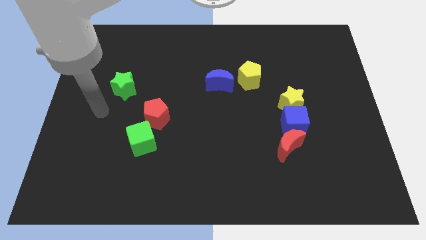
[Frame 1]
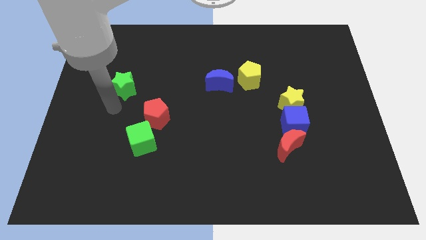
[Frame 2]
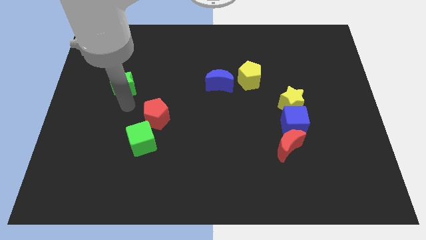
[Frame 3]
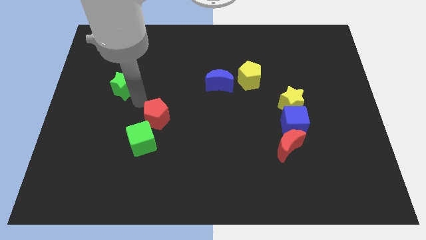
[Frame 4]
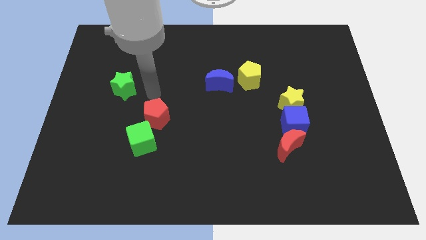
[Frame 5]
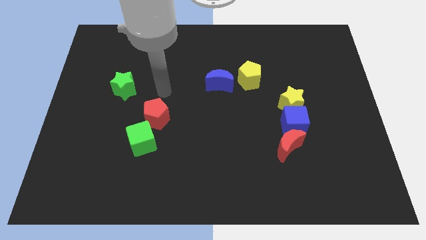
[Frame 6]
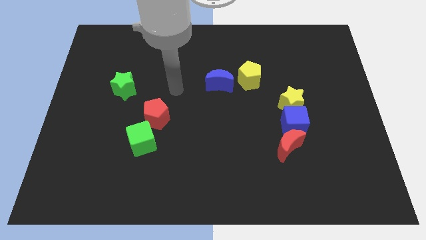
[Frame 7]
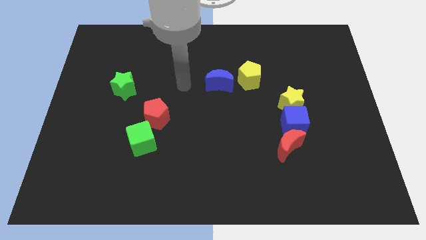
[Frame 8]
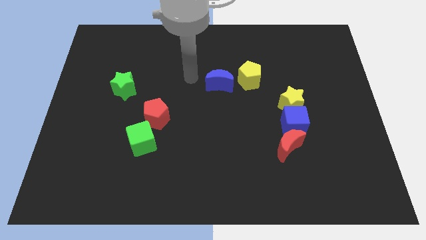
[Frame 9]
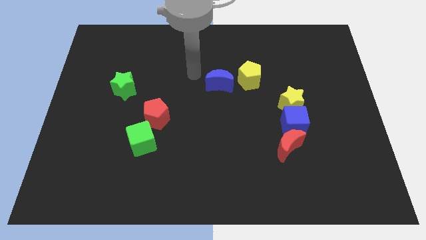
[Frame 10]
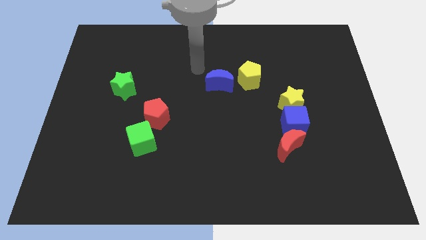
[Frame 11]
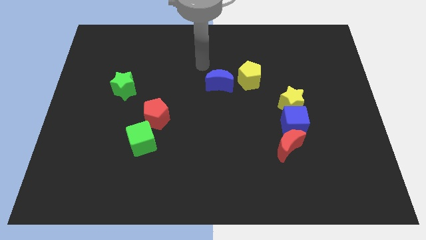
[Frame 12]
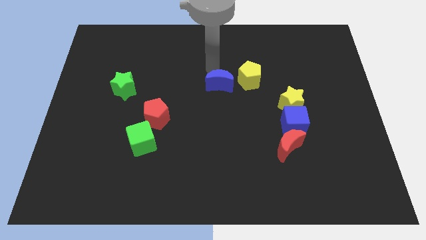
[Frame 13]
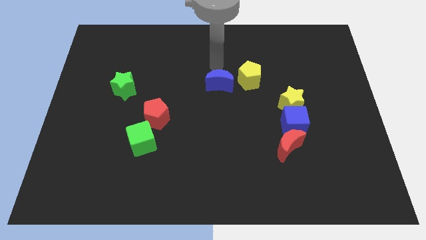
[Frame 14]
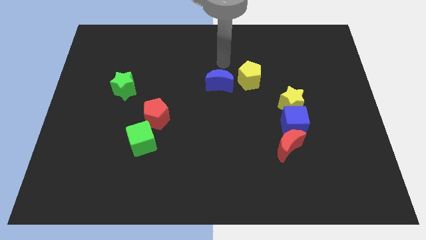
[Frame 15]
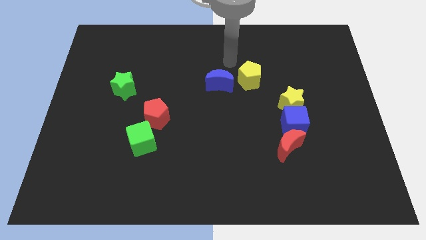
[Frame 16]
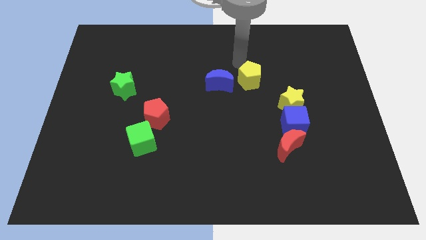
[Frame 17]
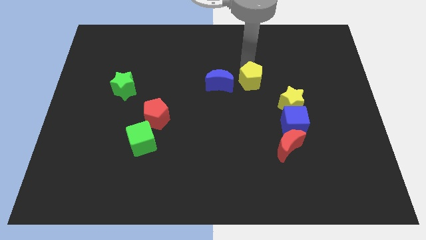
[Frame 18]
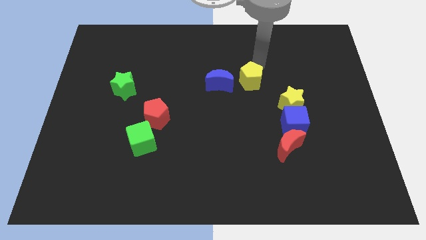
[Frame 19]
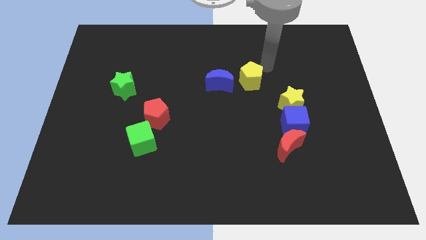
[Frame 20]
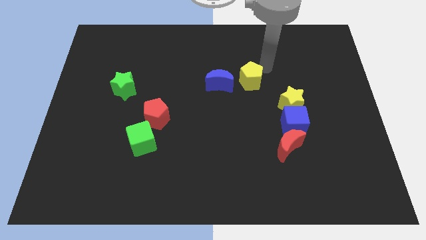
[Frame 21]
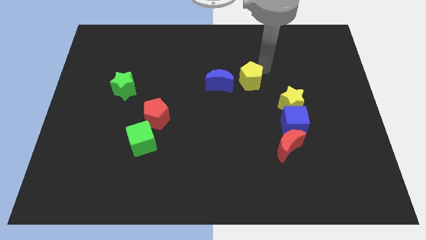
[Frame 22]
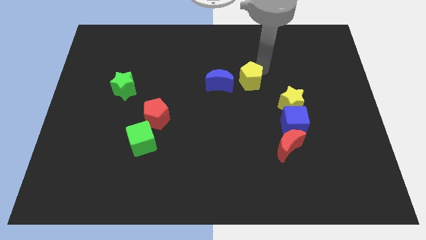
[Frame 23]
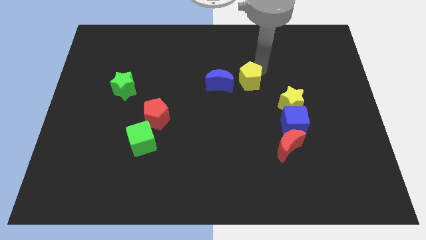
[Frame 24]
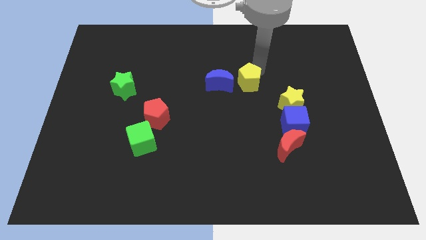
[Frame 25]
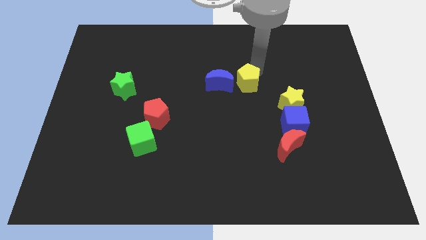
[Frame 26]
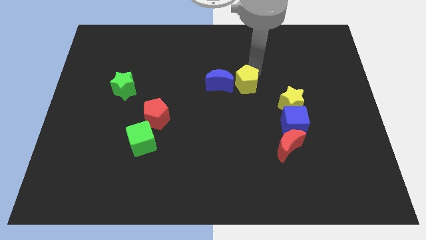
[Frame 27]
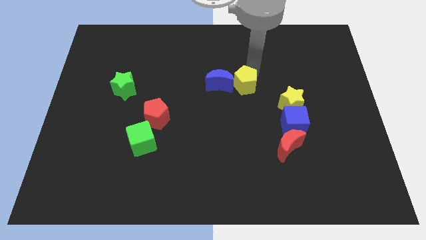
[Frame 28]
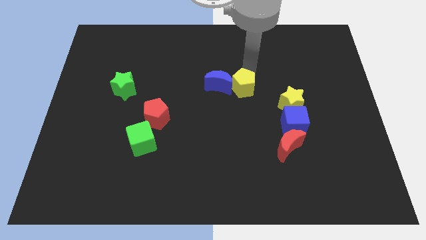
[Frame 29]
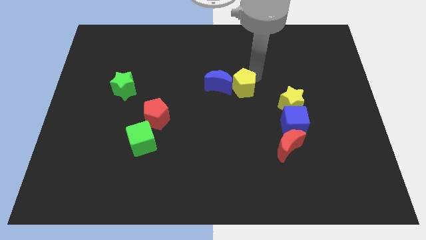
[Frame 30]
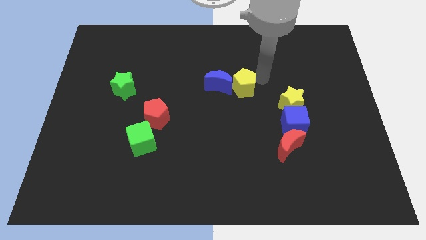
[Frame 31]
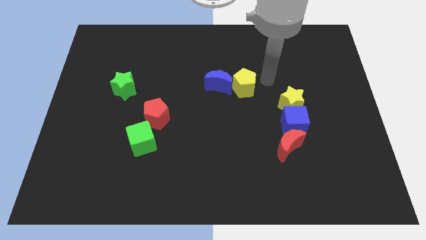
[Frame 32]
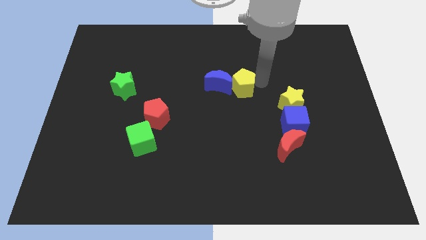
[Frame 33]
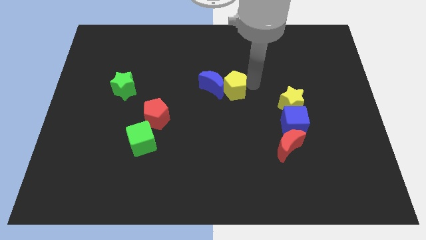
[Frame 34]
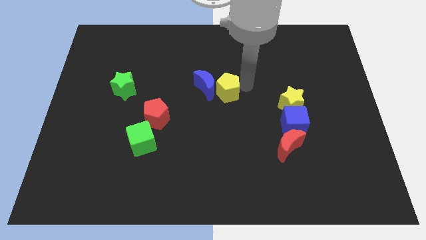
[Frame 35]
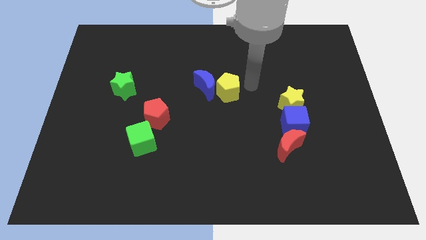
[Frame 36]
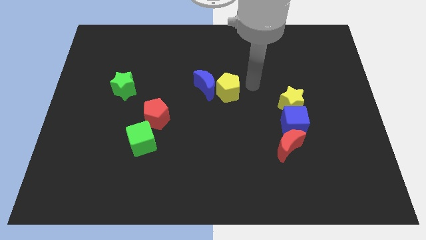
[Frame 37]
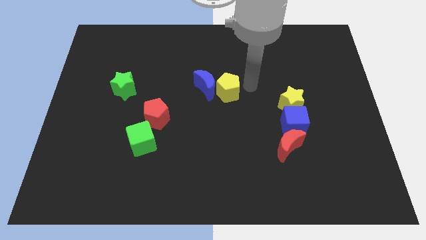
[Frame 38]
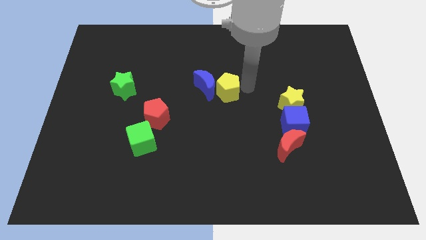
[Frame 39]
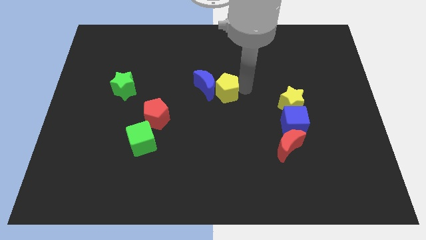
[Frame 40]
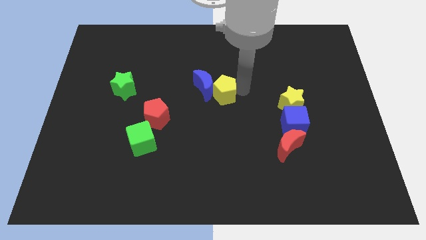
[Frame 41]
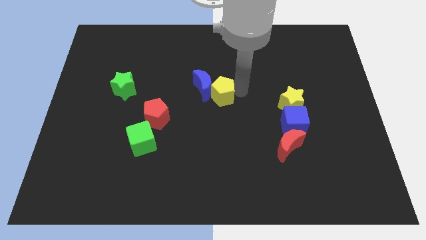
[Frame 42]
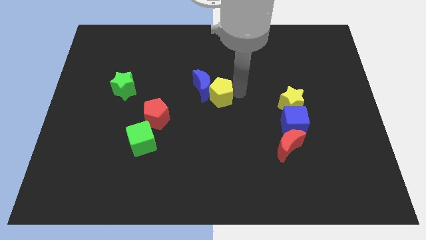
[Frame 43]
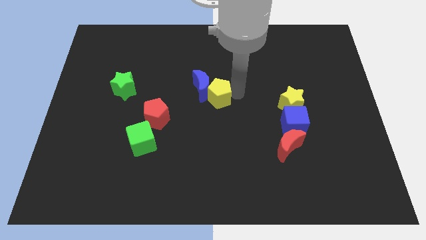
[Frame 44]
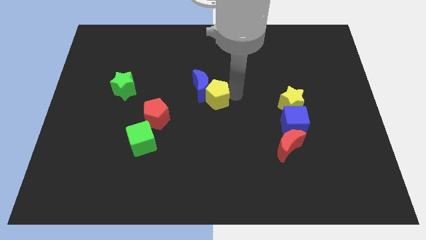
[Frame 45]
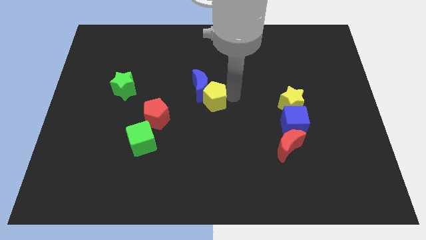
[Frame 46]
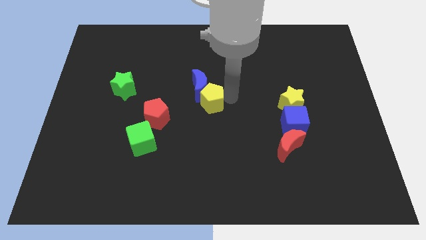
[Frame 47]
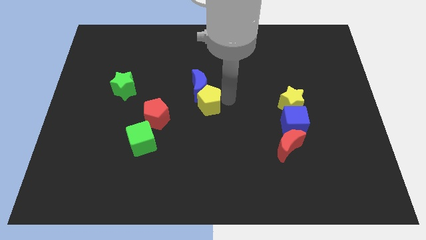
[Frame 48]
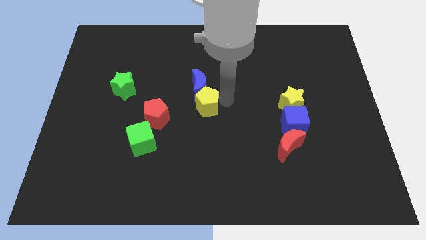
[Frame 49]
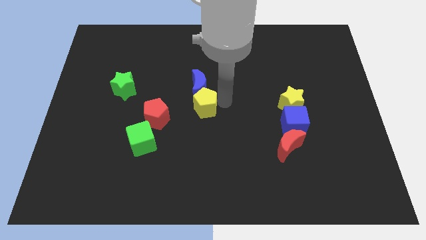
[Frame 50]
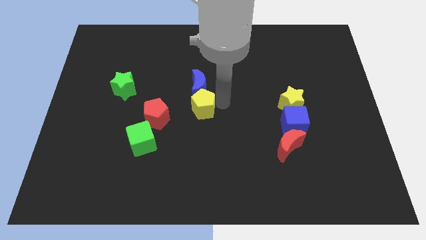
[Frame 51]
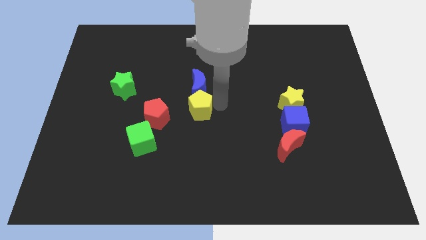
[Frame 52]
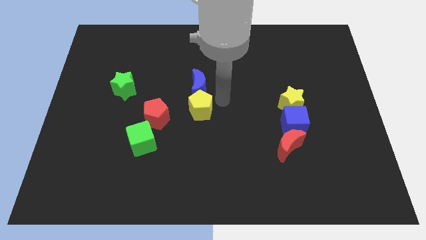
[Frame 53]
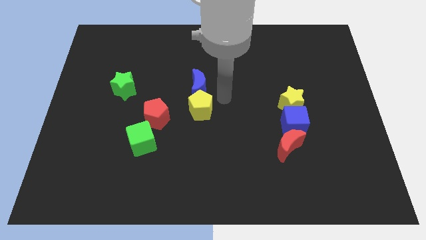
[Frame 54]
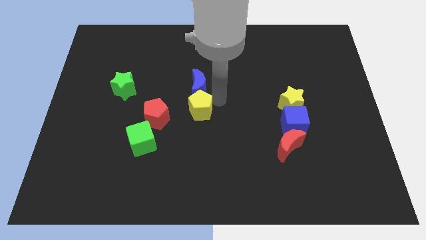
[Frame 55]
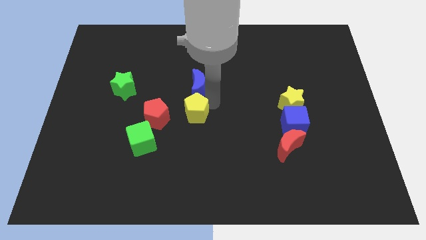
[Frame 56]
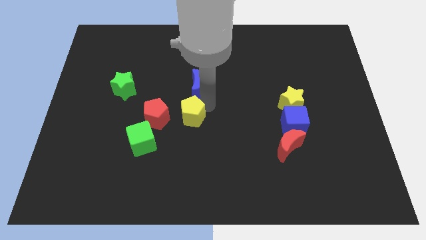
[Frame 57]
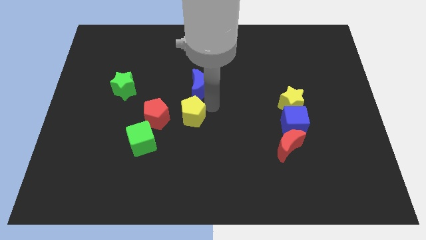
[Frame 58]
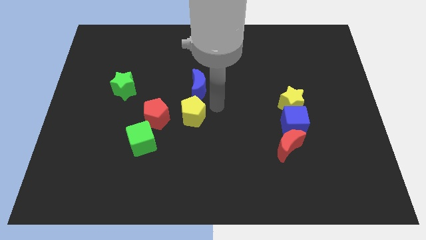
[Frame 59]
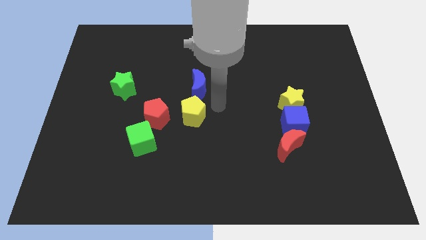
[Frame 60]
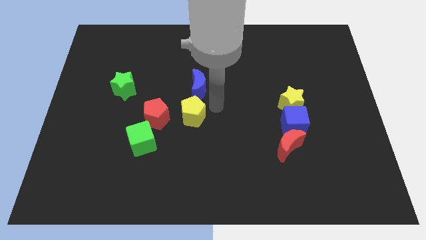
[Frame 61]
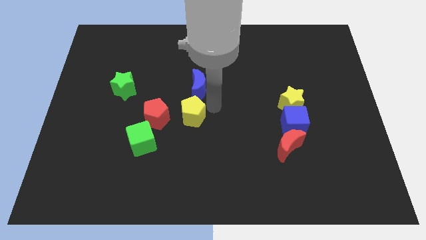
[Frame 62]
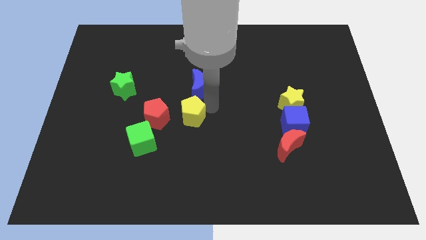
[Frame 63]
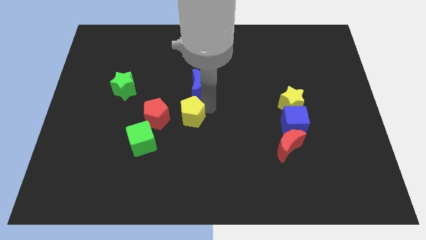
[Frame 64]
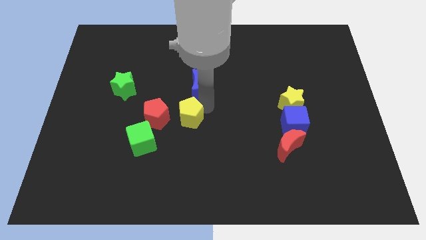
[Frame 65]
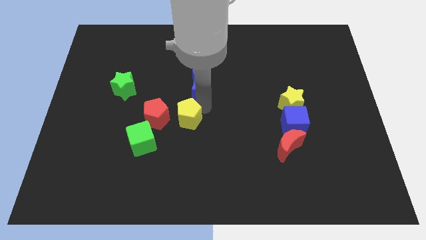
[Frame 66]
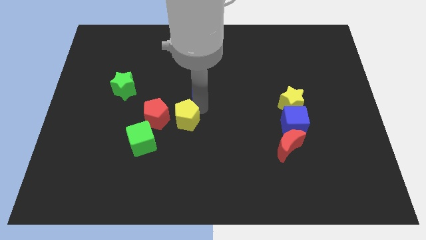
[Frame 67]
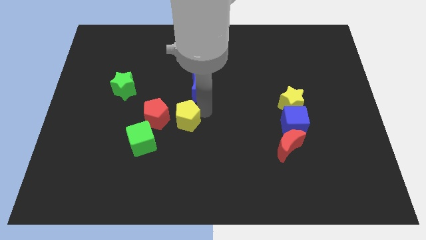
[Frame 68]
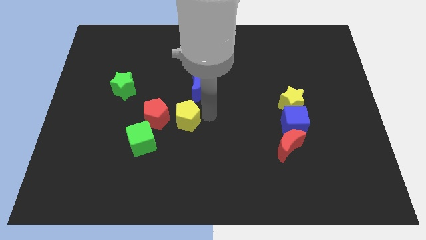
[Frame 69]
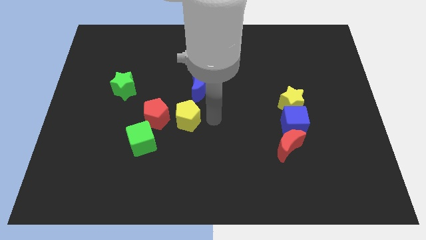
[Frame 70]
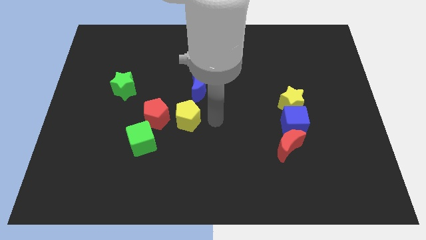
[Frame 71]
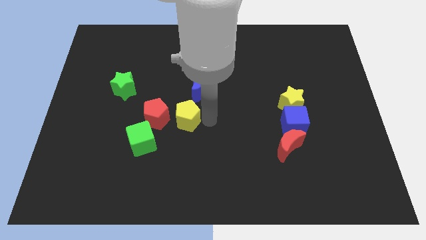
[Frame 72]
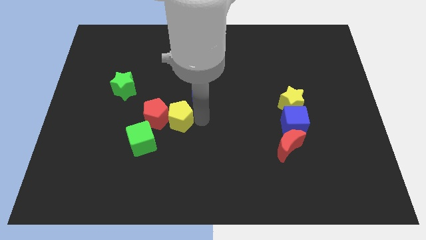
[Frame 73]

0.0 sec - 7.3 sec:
move the yellow pentagon towards the red pentagon

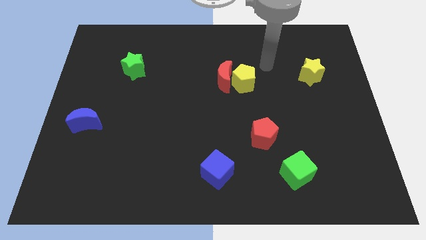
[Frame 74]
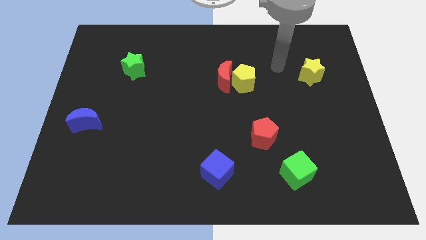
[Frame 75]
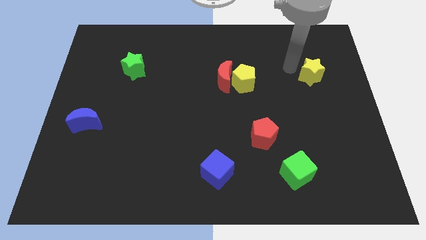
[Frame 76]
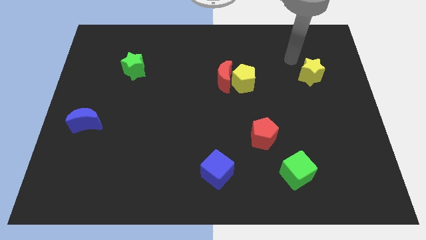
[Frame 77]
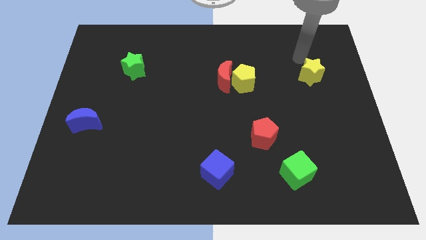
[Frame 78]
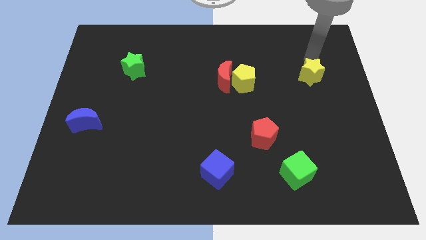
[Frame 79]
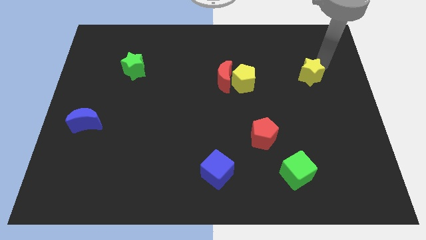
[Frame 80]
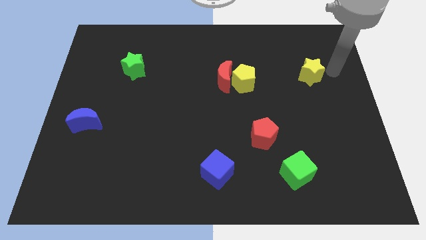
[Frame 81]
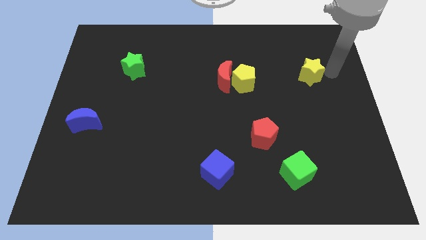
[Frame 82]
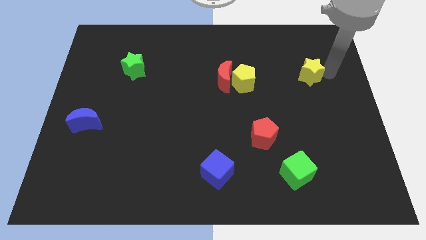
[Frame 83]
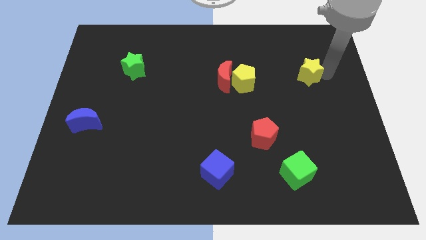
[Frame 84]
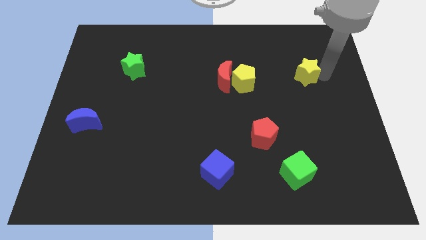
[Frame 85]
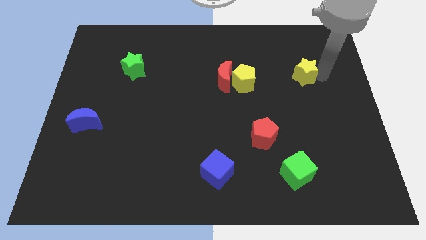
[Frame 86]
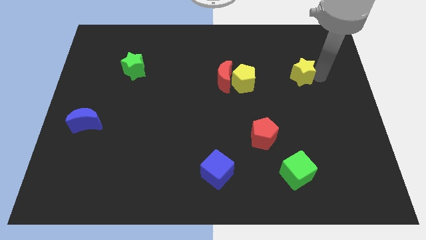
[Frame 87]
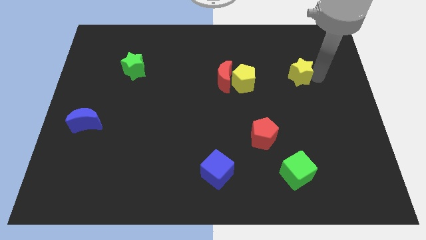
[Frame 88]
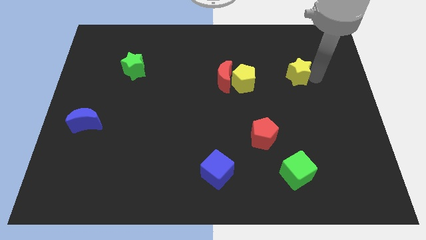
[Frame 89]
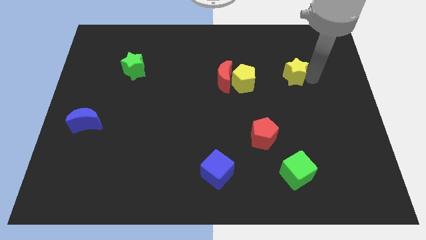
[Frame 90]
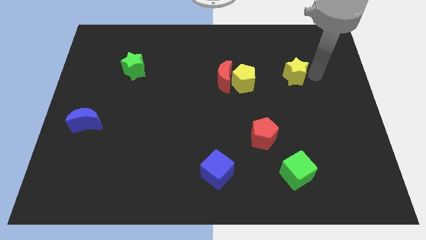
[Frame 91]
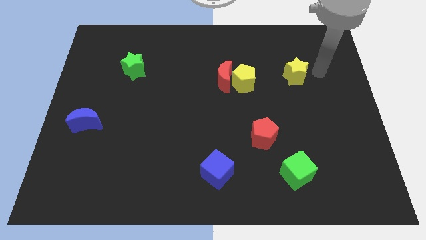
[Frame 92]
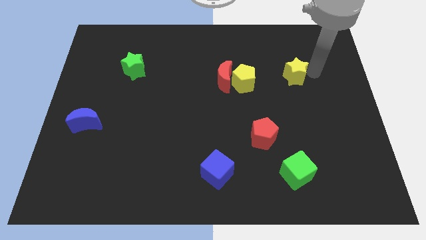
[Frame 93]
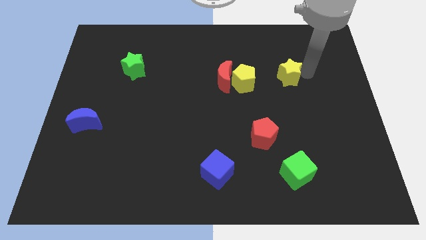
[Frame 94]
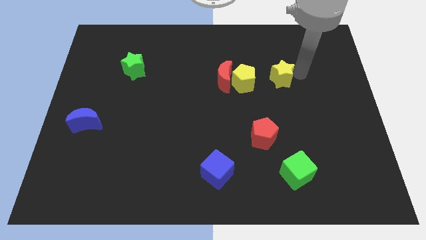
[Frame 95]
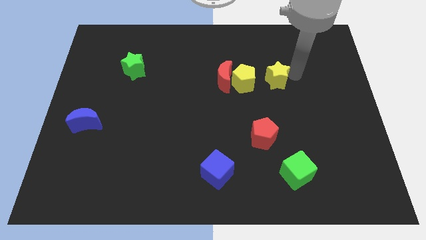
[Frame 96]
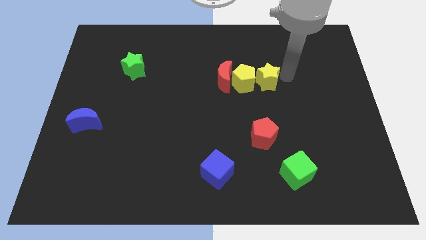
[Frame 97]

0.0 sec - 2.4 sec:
move the yellow star close to the yellow pentagon
